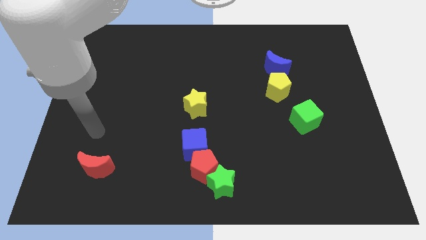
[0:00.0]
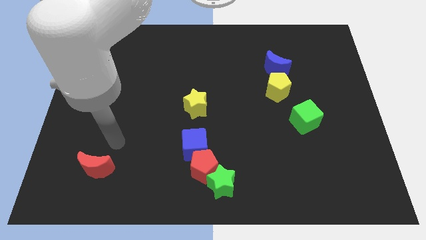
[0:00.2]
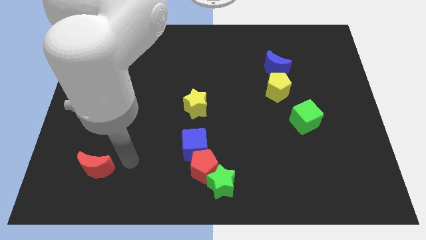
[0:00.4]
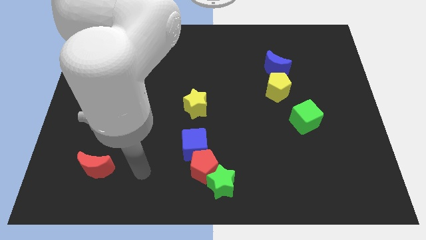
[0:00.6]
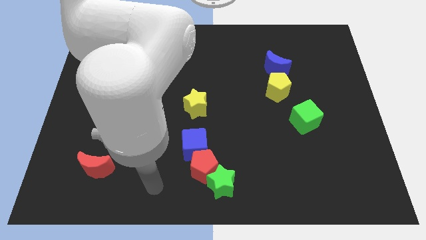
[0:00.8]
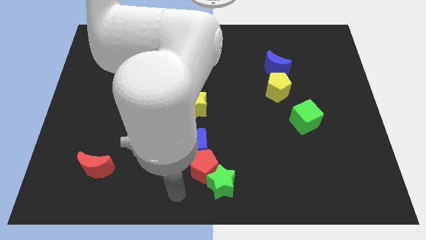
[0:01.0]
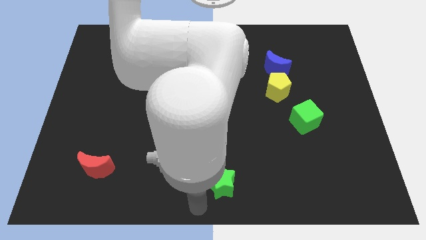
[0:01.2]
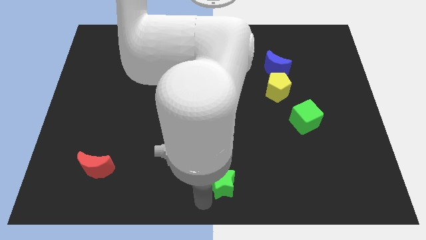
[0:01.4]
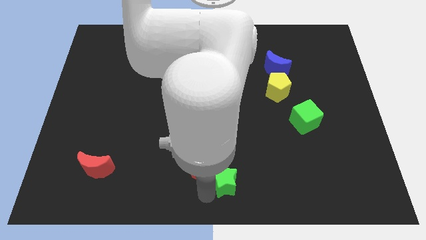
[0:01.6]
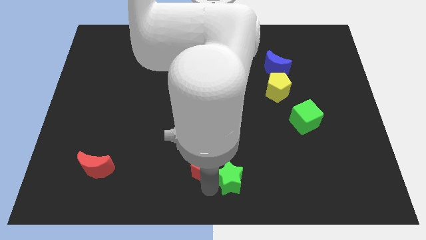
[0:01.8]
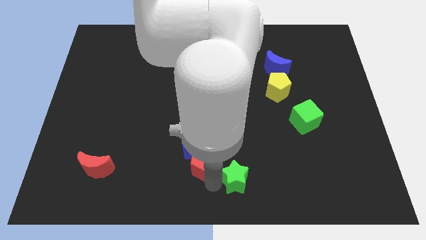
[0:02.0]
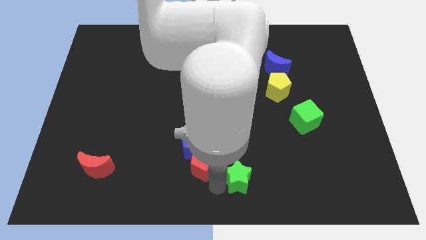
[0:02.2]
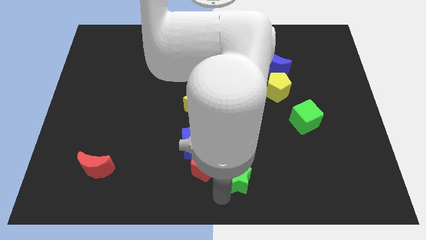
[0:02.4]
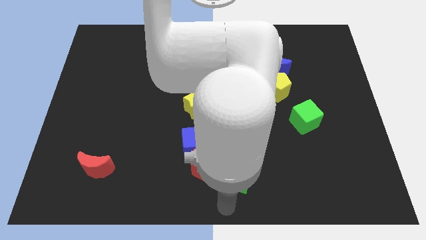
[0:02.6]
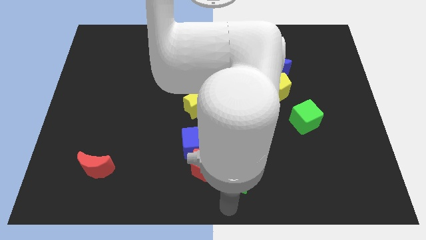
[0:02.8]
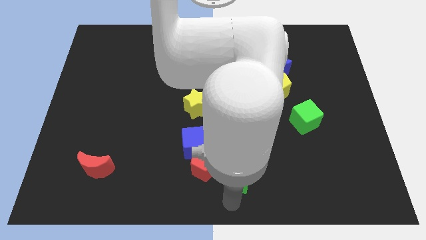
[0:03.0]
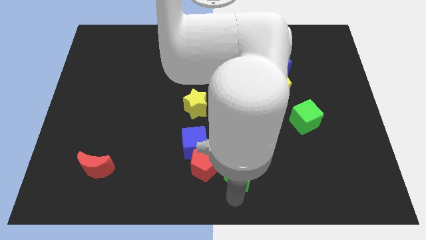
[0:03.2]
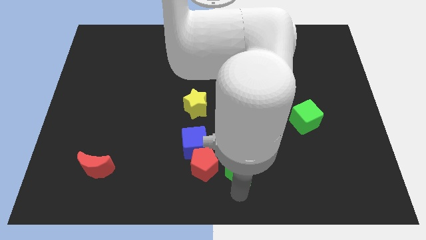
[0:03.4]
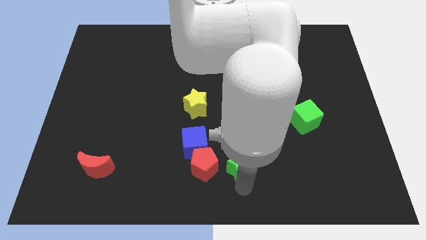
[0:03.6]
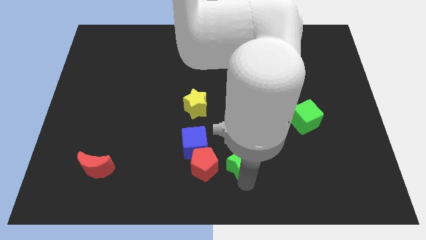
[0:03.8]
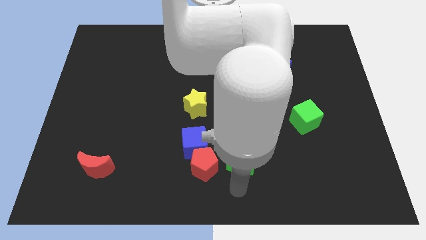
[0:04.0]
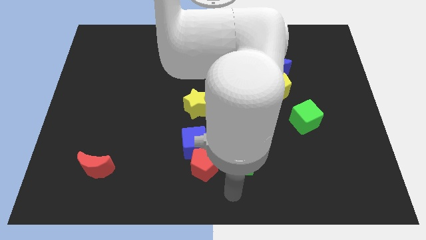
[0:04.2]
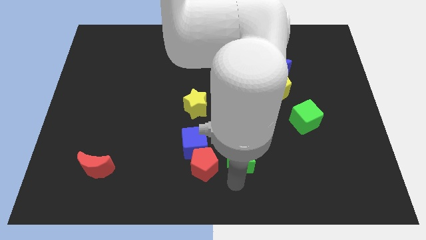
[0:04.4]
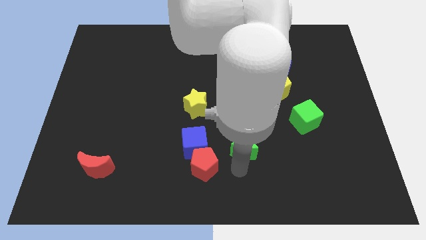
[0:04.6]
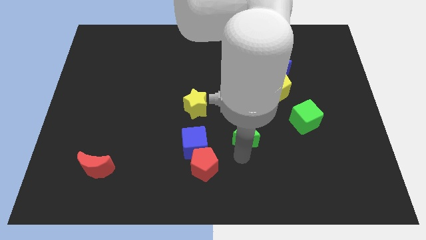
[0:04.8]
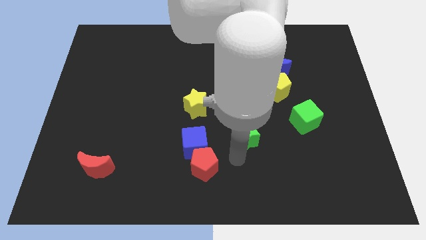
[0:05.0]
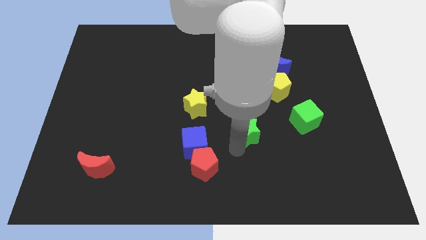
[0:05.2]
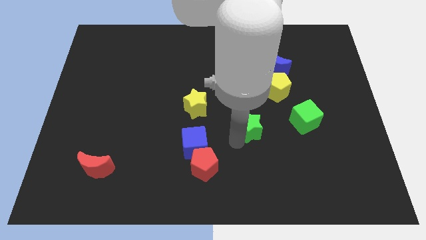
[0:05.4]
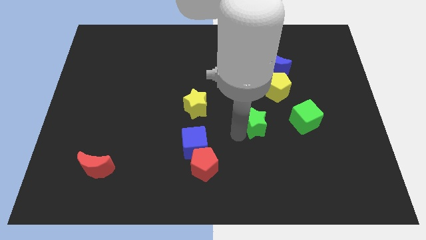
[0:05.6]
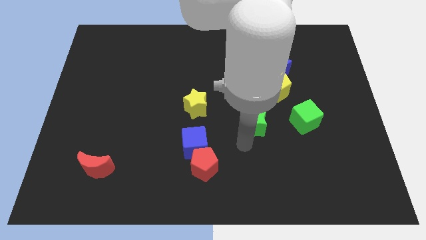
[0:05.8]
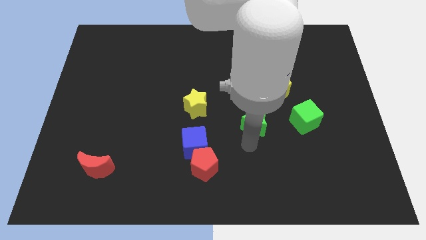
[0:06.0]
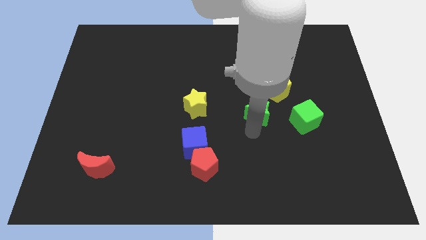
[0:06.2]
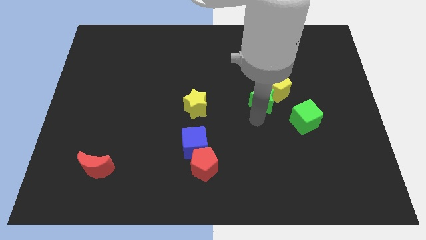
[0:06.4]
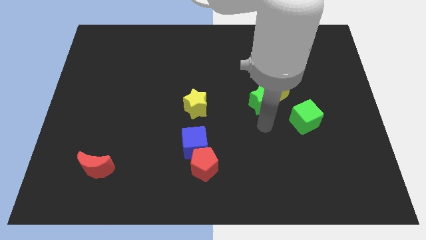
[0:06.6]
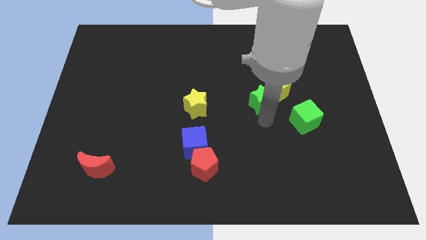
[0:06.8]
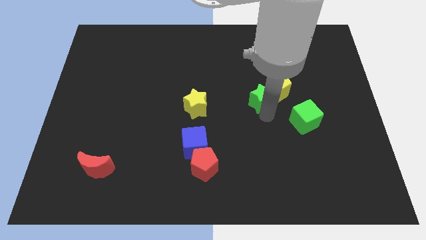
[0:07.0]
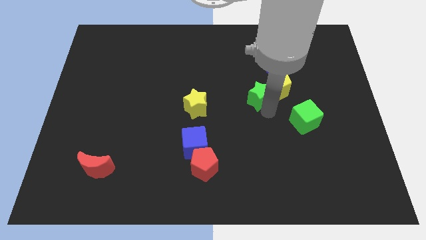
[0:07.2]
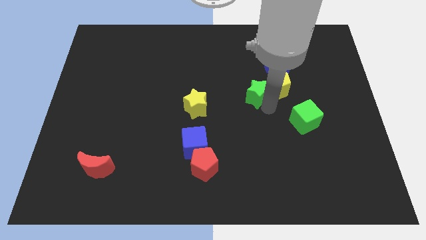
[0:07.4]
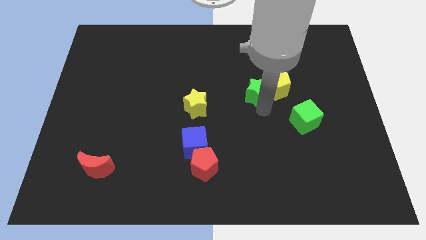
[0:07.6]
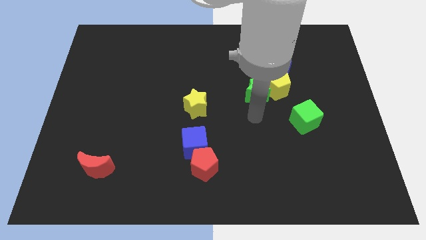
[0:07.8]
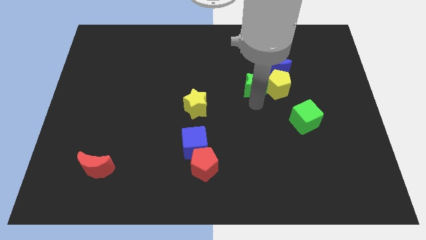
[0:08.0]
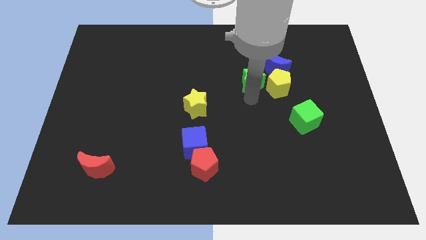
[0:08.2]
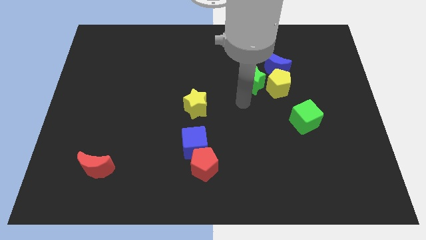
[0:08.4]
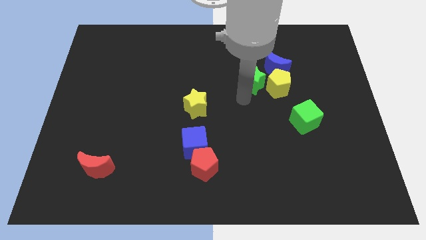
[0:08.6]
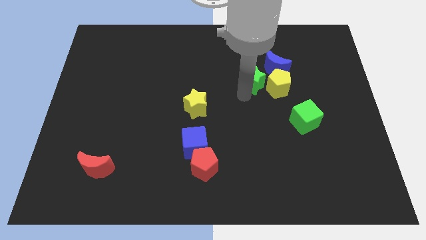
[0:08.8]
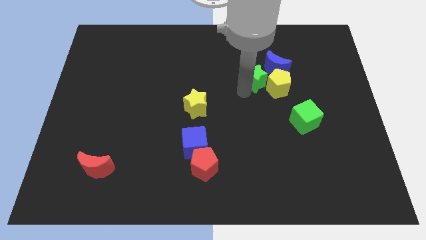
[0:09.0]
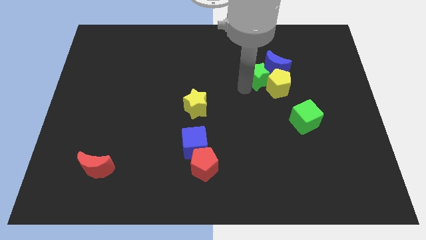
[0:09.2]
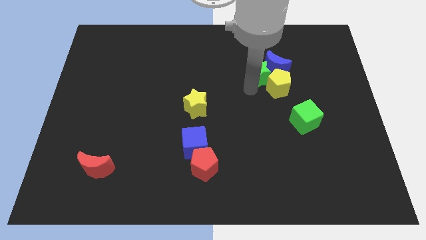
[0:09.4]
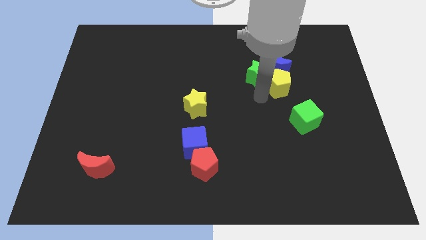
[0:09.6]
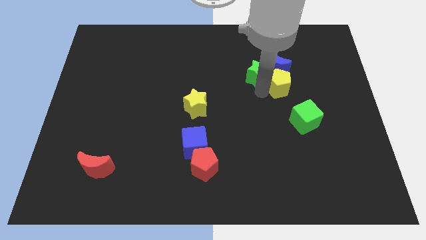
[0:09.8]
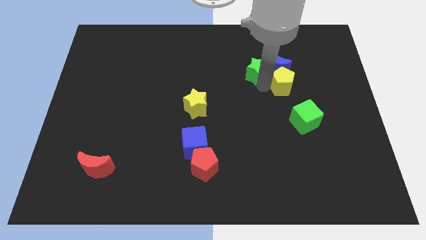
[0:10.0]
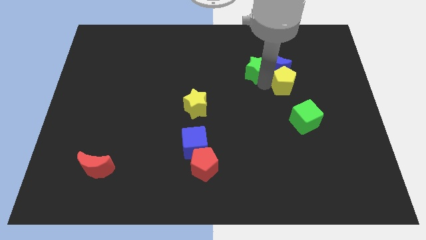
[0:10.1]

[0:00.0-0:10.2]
push the green star to the top left of the blue moon

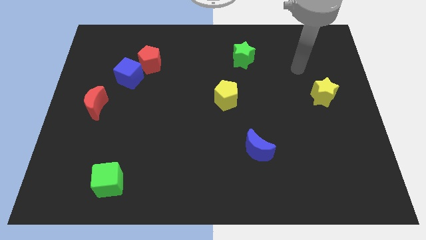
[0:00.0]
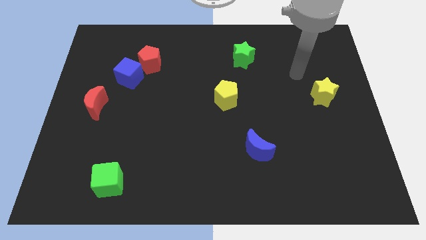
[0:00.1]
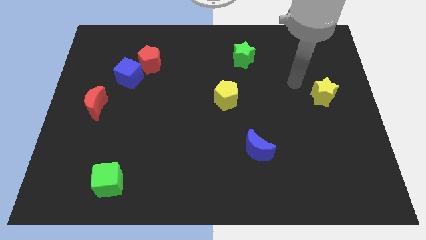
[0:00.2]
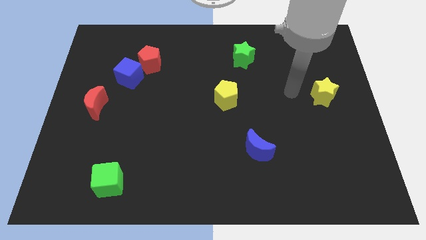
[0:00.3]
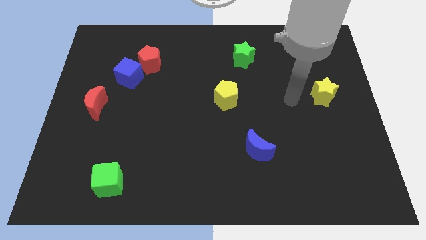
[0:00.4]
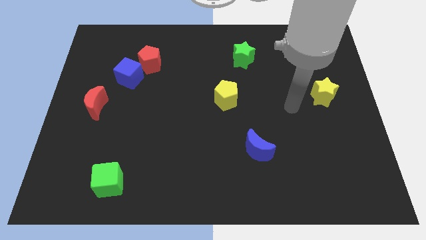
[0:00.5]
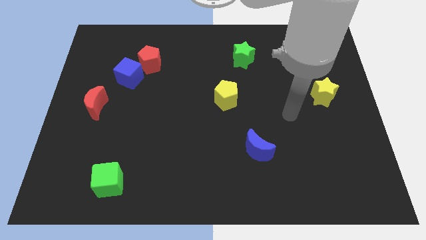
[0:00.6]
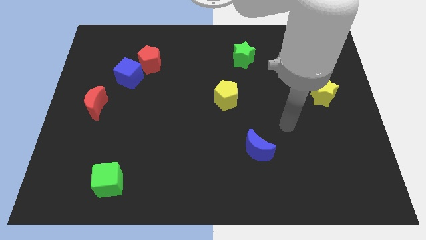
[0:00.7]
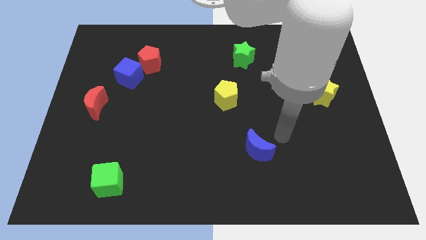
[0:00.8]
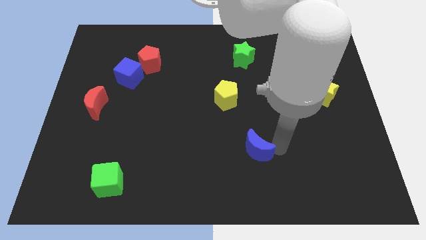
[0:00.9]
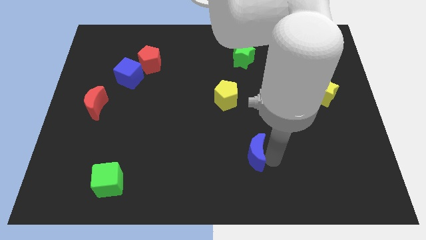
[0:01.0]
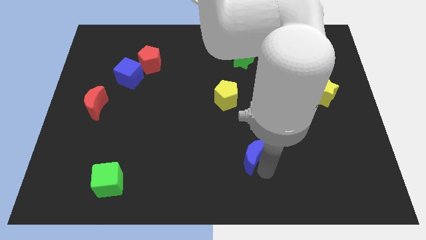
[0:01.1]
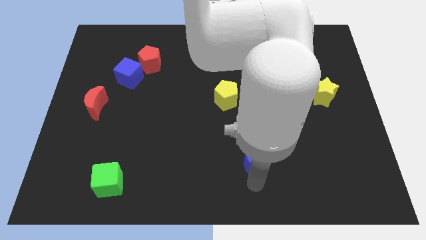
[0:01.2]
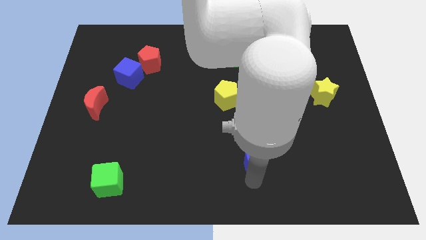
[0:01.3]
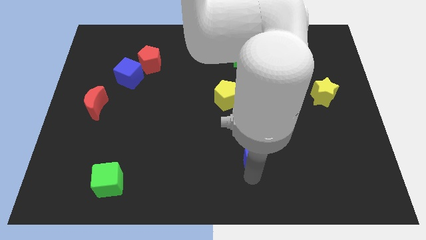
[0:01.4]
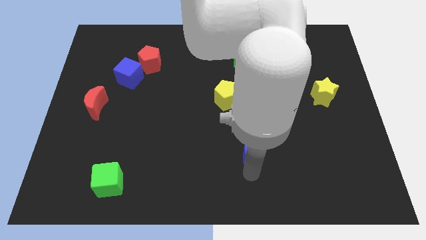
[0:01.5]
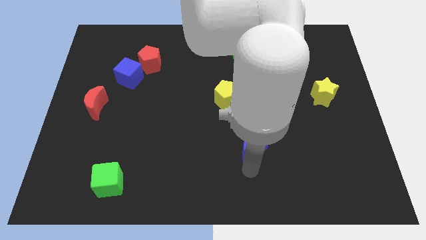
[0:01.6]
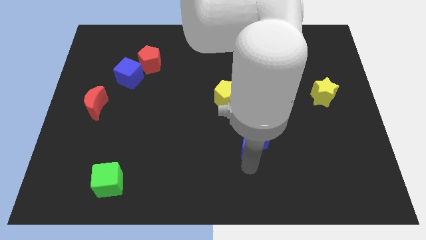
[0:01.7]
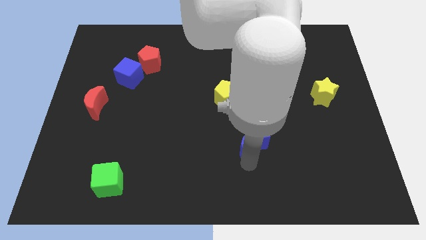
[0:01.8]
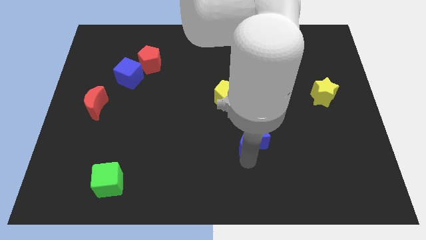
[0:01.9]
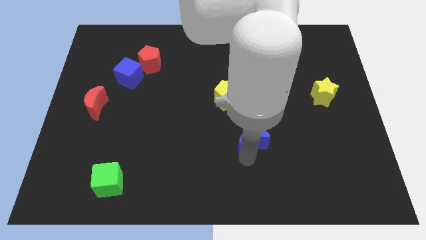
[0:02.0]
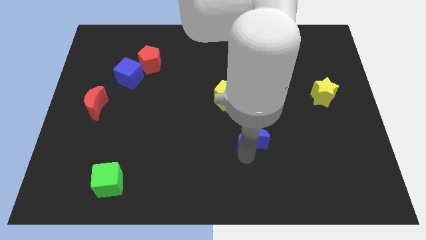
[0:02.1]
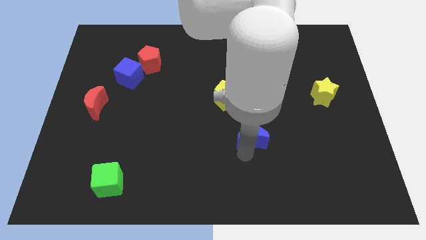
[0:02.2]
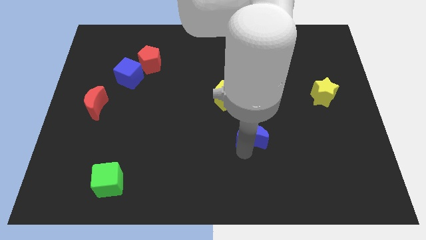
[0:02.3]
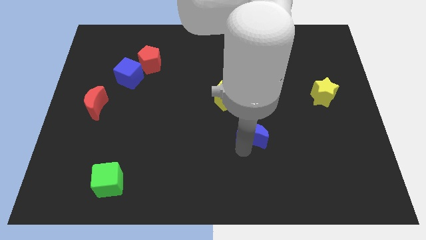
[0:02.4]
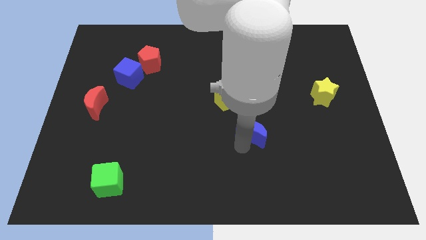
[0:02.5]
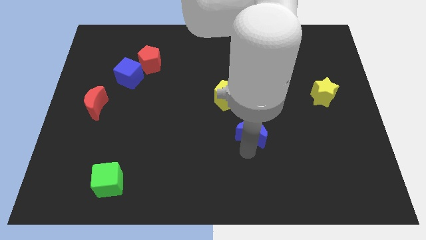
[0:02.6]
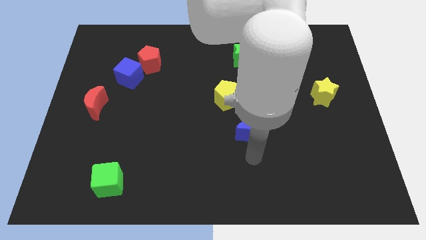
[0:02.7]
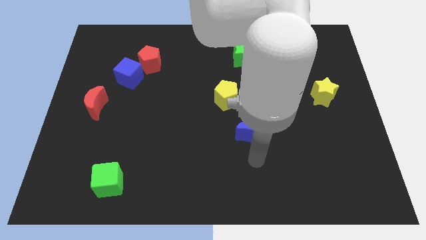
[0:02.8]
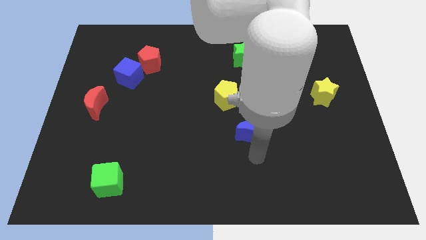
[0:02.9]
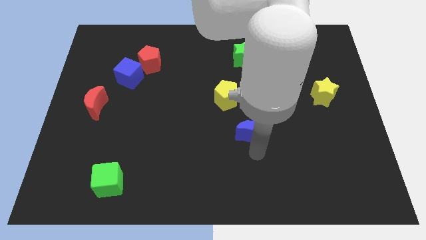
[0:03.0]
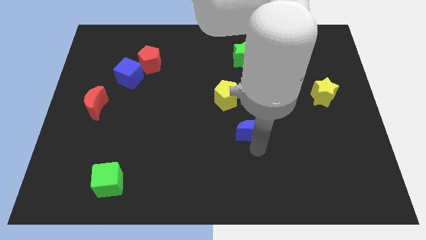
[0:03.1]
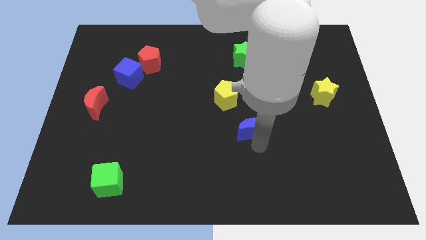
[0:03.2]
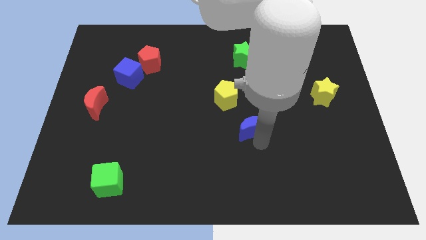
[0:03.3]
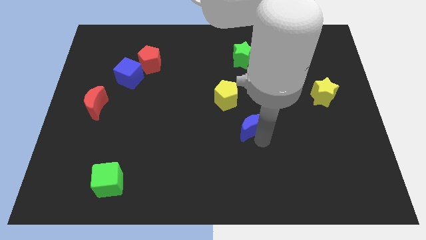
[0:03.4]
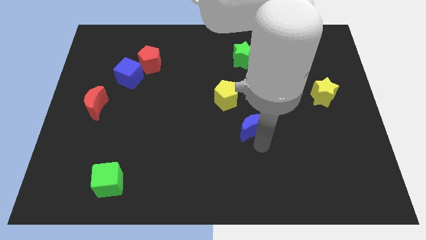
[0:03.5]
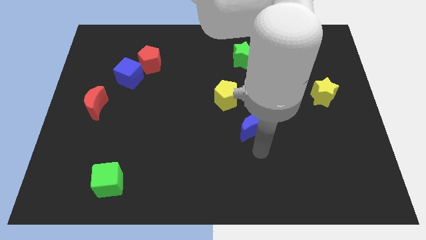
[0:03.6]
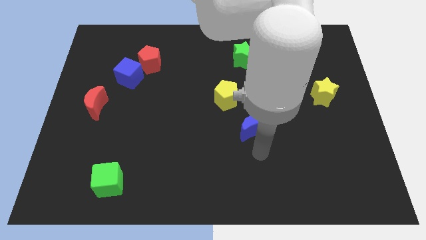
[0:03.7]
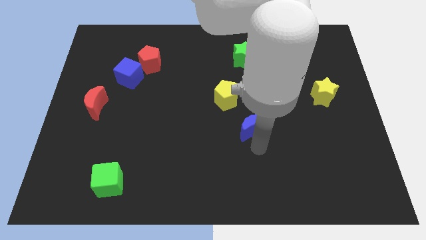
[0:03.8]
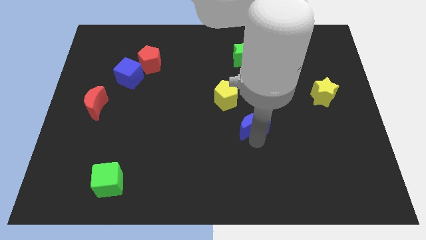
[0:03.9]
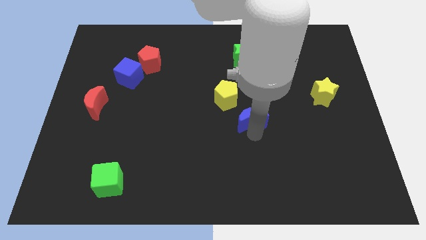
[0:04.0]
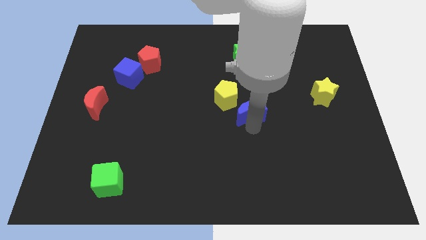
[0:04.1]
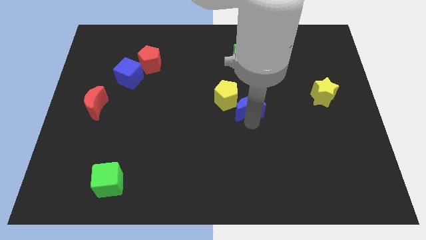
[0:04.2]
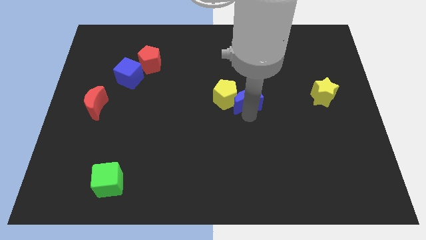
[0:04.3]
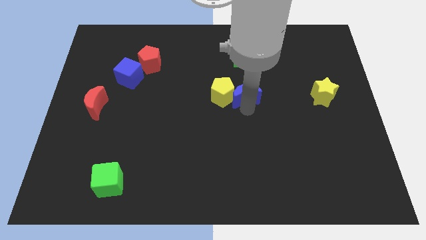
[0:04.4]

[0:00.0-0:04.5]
put the blue moon diagonally up and to the right of the yellow pentagon
